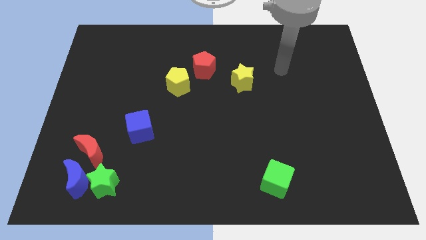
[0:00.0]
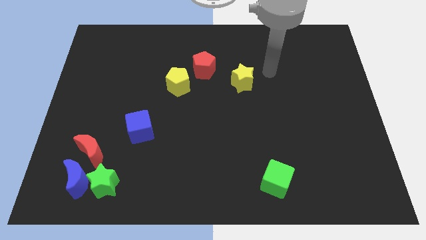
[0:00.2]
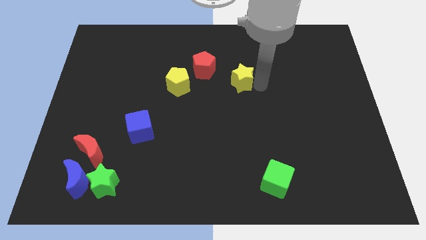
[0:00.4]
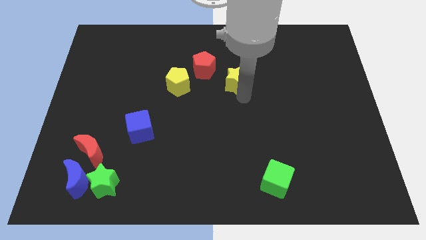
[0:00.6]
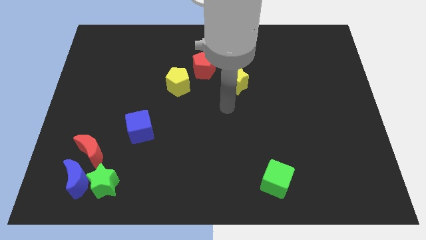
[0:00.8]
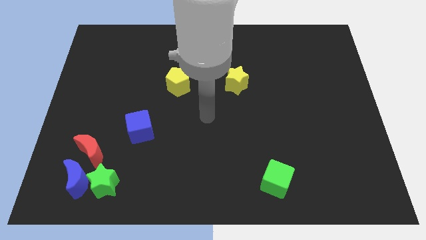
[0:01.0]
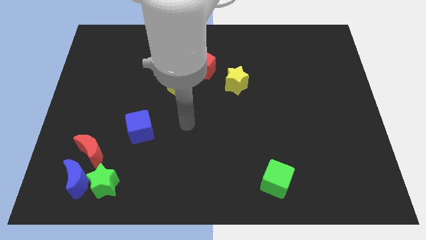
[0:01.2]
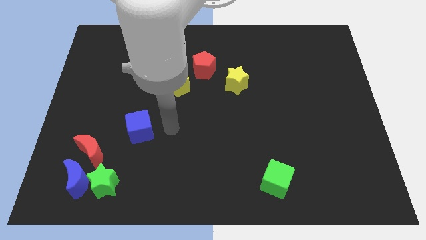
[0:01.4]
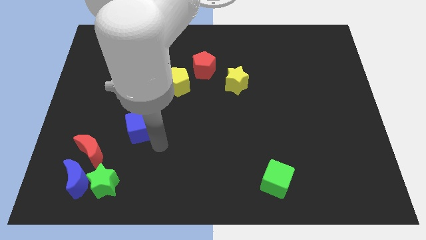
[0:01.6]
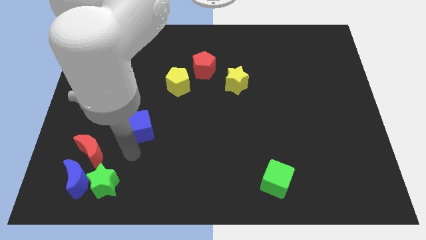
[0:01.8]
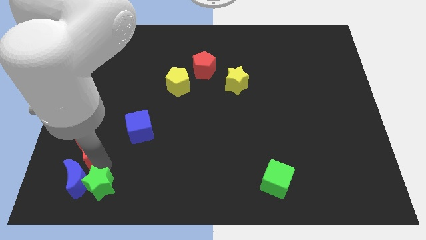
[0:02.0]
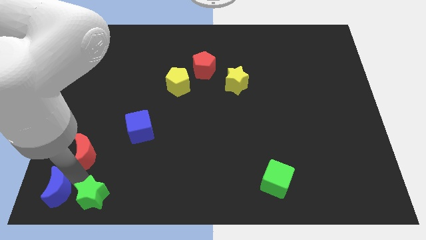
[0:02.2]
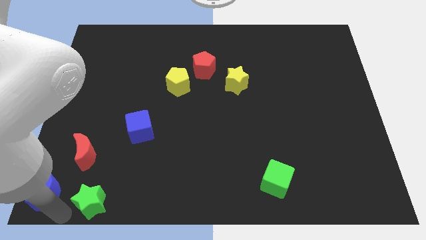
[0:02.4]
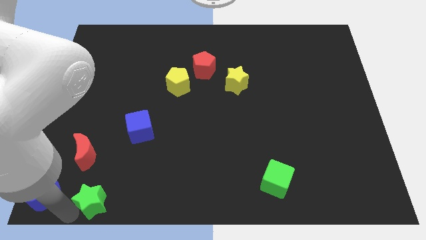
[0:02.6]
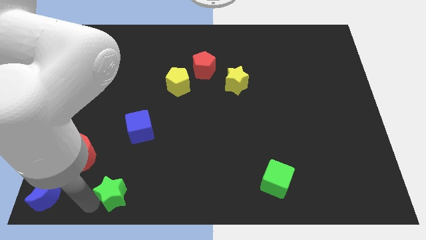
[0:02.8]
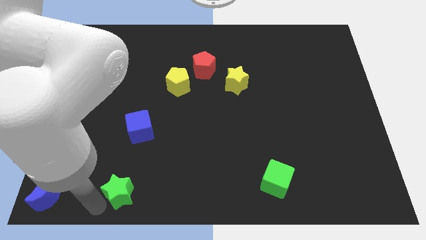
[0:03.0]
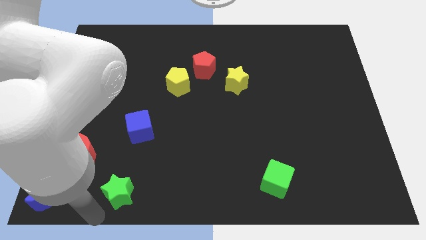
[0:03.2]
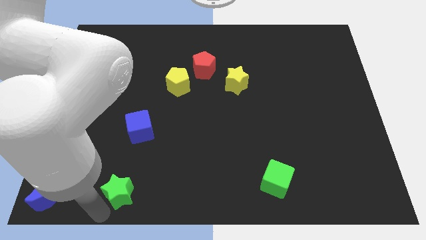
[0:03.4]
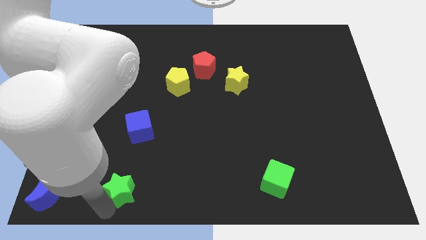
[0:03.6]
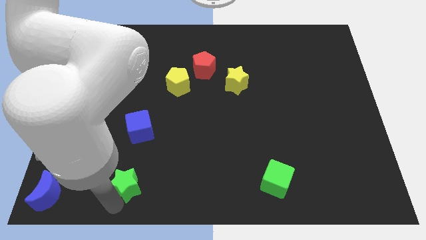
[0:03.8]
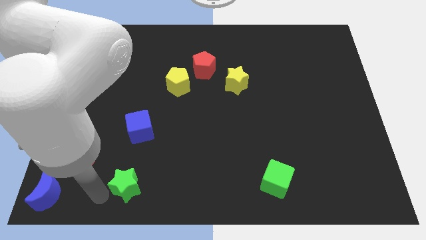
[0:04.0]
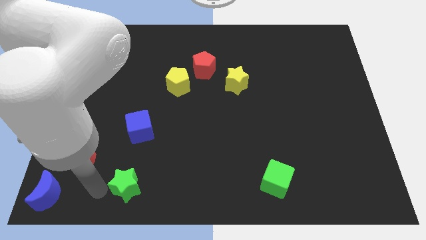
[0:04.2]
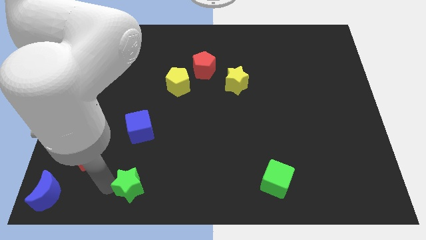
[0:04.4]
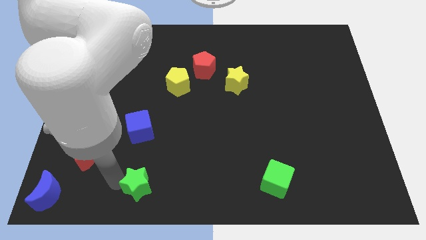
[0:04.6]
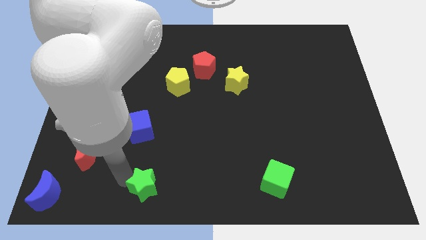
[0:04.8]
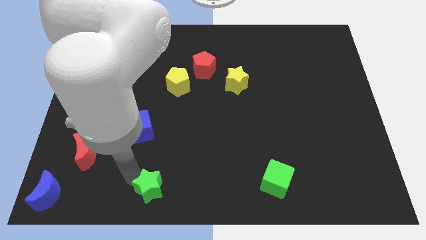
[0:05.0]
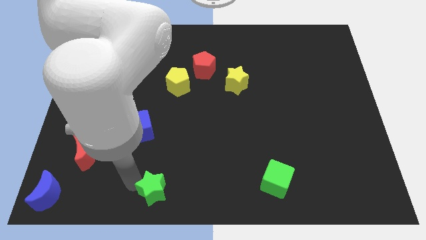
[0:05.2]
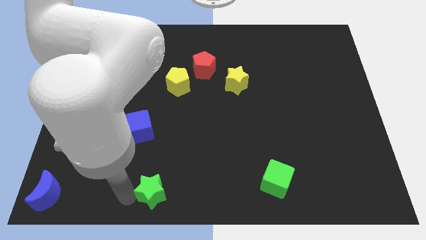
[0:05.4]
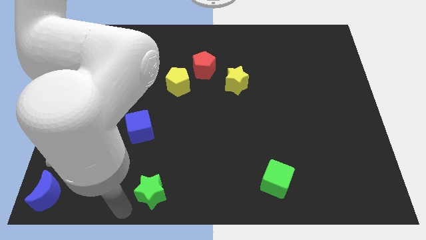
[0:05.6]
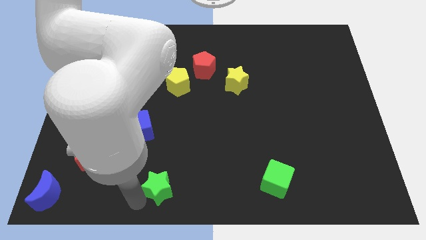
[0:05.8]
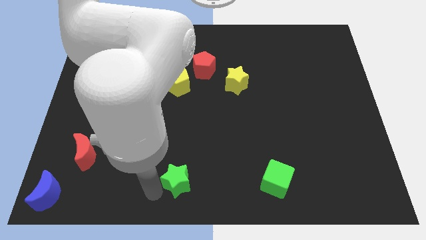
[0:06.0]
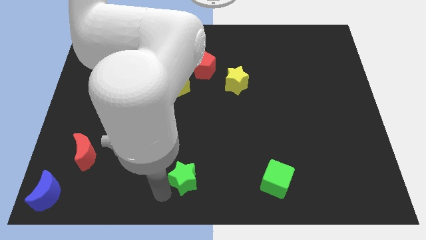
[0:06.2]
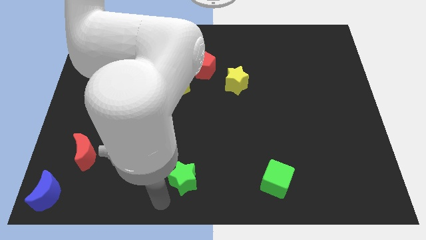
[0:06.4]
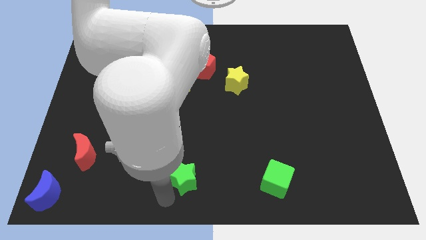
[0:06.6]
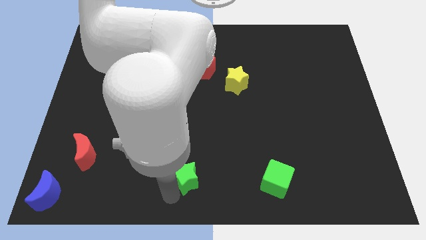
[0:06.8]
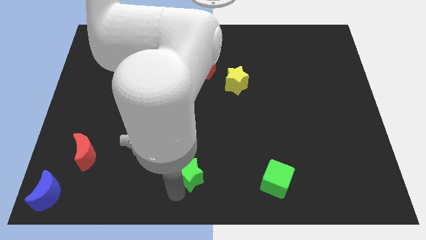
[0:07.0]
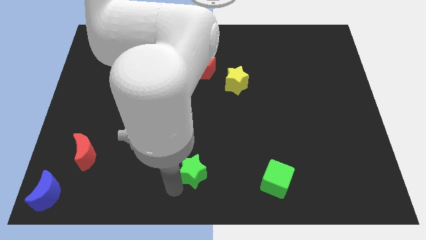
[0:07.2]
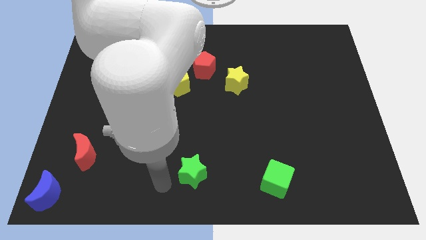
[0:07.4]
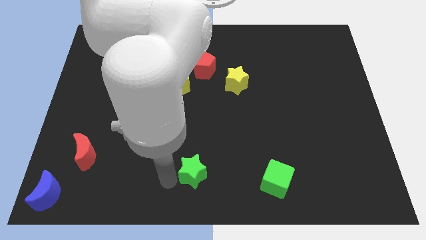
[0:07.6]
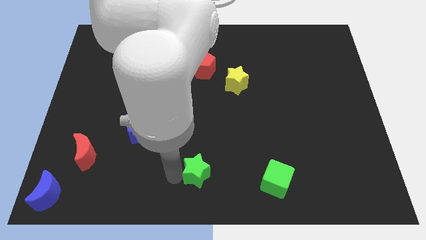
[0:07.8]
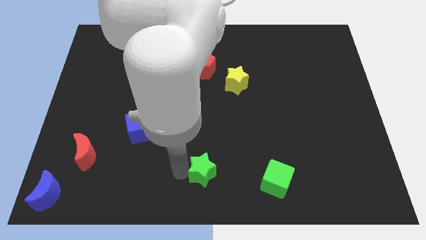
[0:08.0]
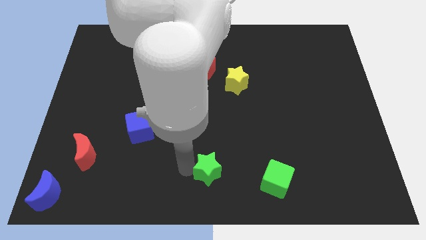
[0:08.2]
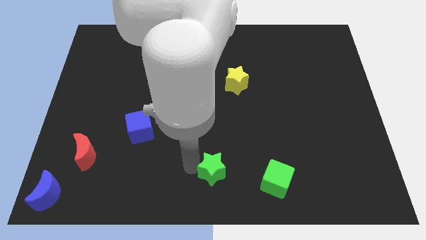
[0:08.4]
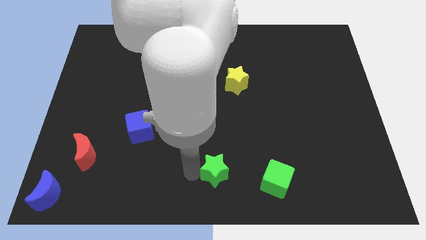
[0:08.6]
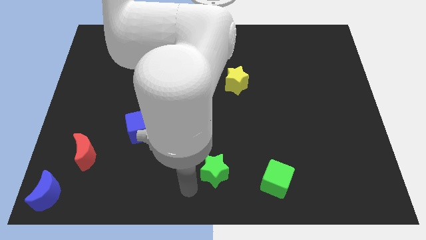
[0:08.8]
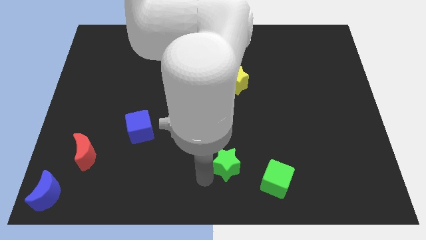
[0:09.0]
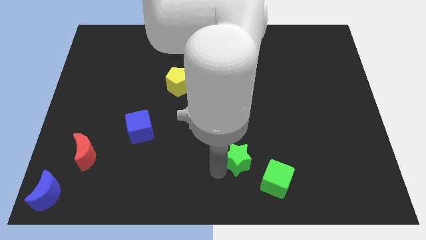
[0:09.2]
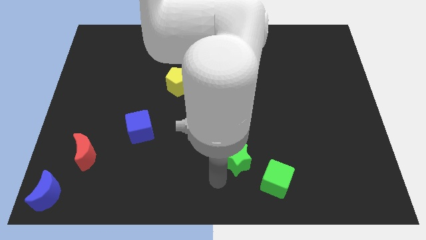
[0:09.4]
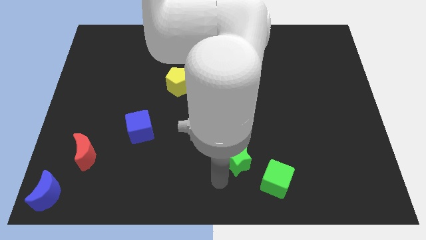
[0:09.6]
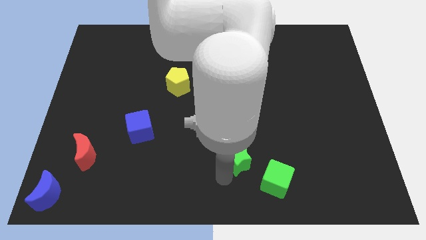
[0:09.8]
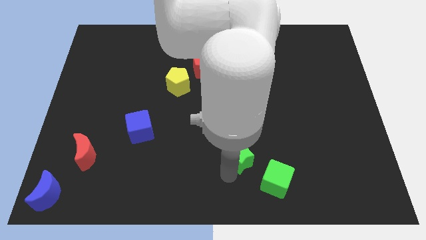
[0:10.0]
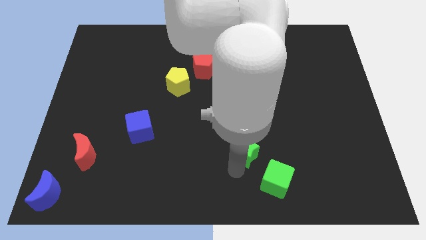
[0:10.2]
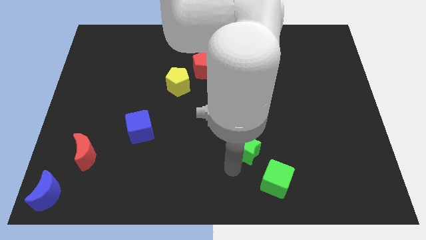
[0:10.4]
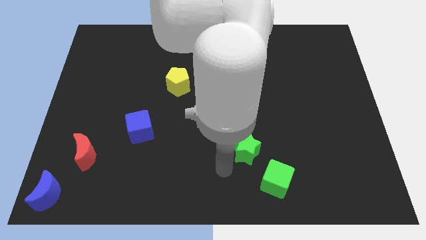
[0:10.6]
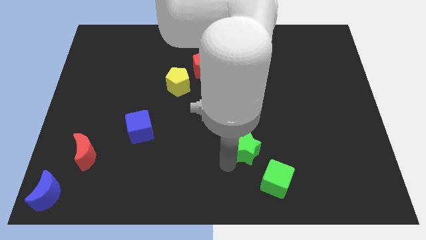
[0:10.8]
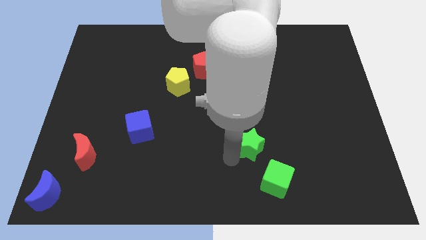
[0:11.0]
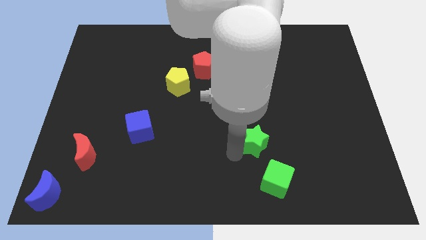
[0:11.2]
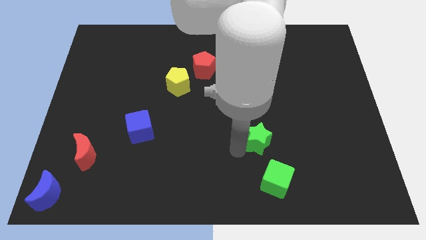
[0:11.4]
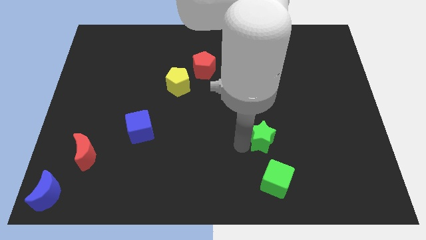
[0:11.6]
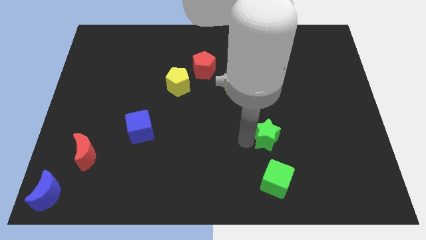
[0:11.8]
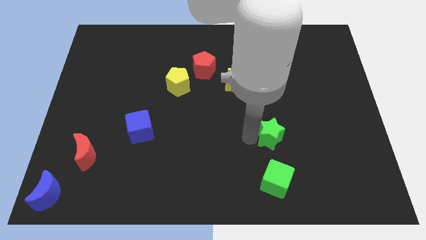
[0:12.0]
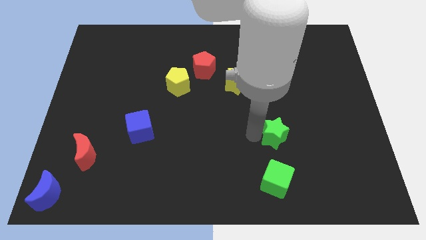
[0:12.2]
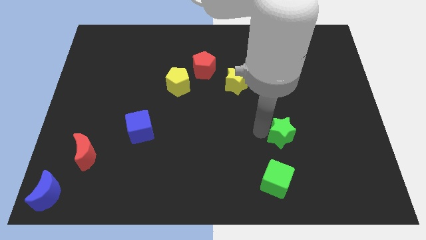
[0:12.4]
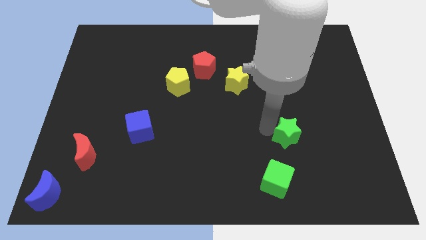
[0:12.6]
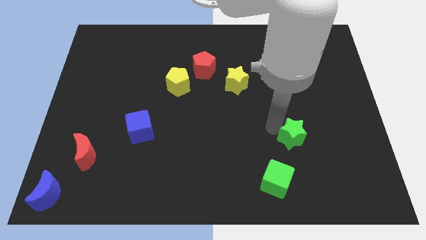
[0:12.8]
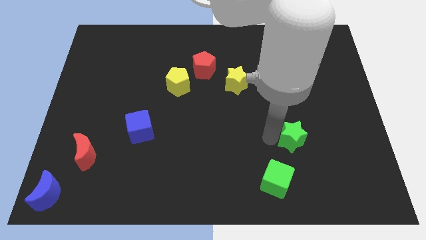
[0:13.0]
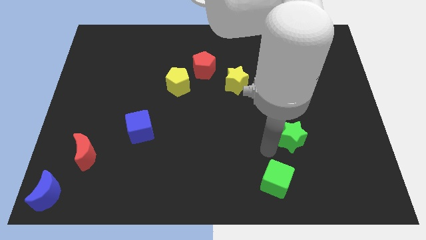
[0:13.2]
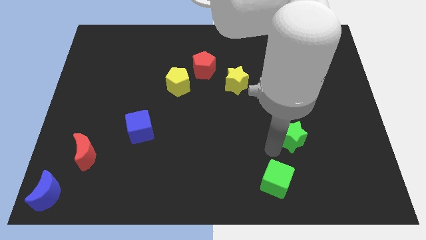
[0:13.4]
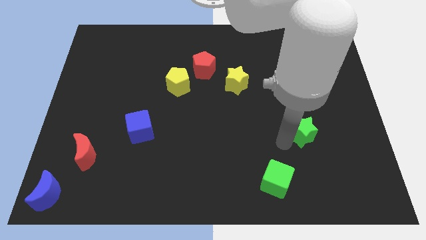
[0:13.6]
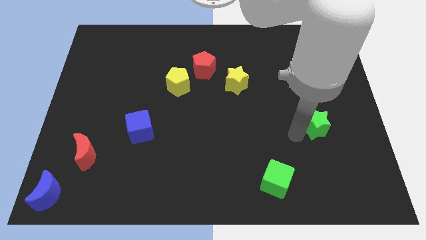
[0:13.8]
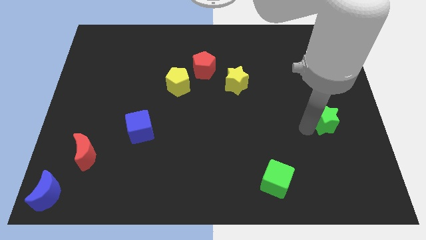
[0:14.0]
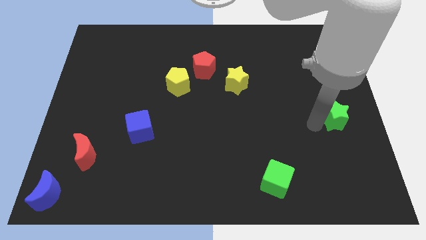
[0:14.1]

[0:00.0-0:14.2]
slide the green star to the right side

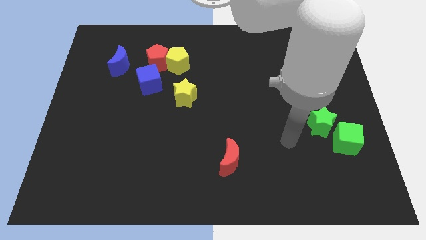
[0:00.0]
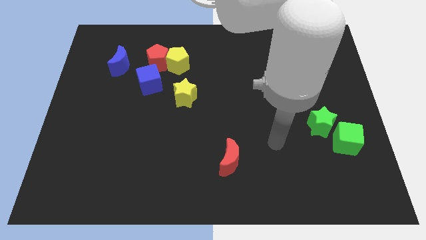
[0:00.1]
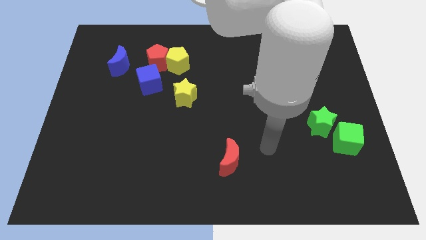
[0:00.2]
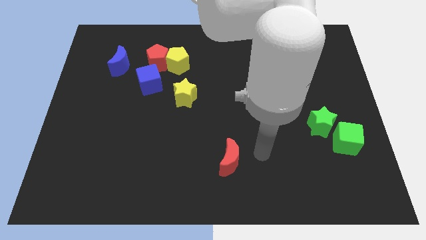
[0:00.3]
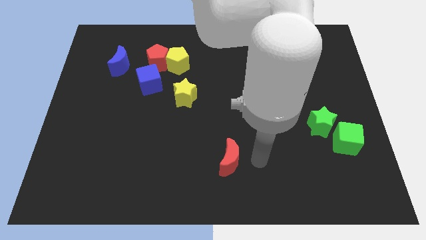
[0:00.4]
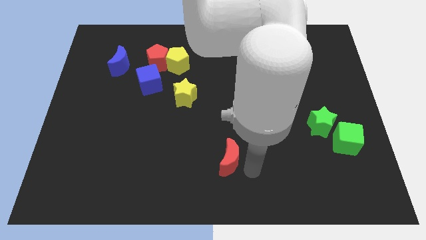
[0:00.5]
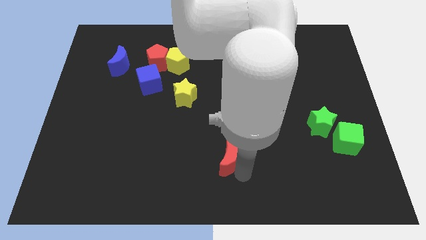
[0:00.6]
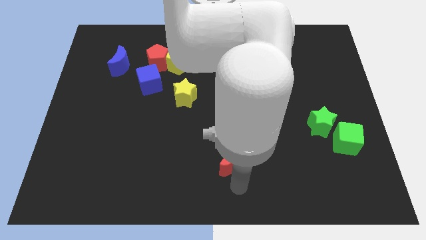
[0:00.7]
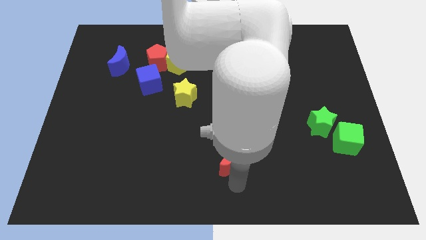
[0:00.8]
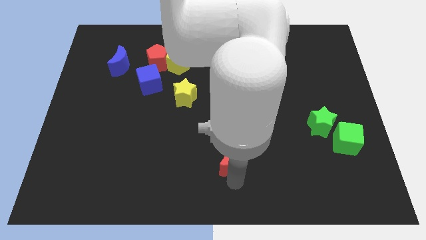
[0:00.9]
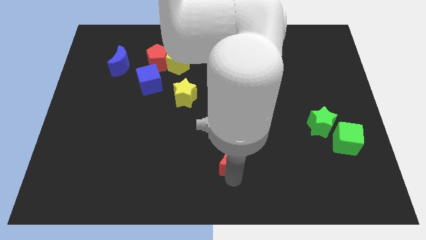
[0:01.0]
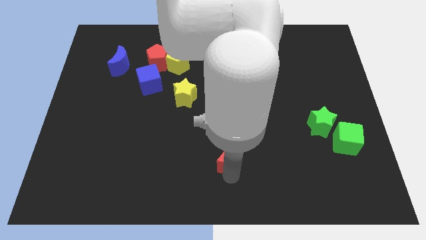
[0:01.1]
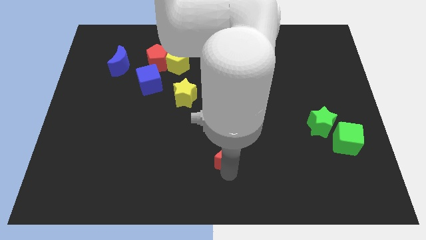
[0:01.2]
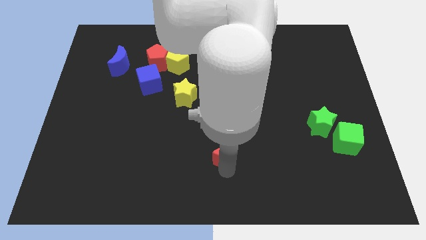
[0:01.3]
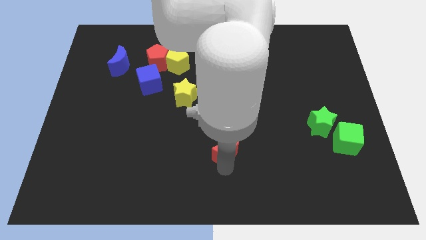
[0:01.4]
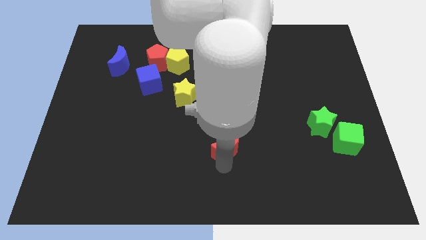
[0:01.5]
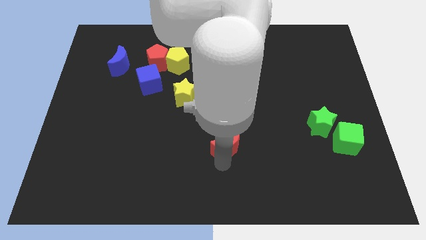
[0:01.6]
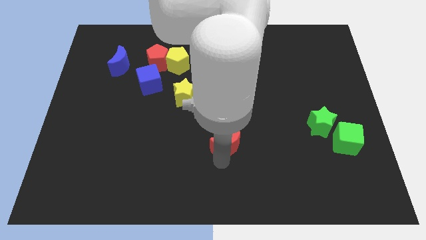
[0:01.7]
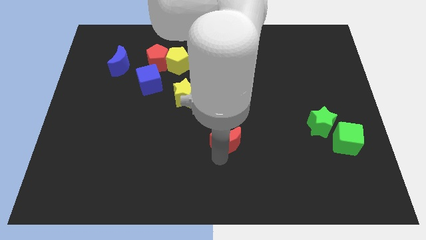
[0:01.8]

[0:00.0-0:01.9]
push the red moon to the middle of the board
